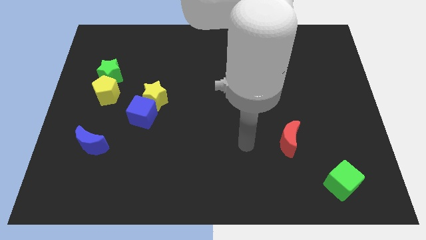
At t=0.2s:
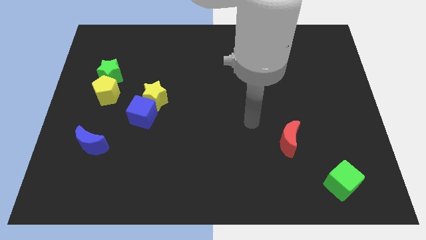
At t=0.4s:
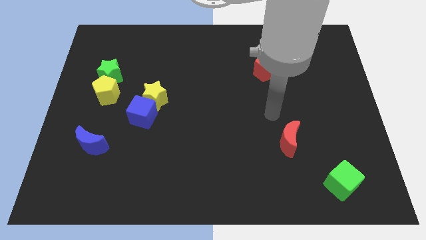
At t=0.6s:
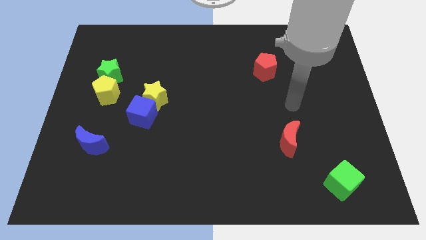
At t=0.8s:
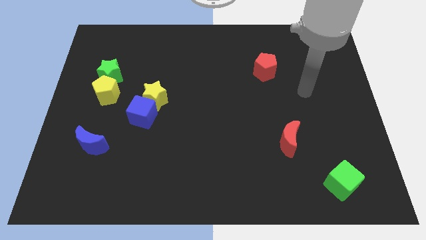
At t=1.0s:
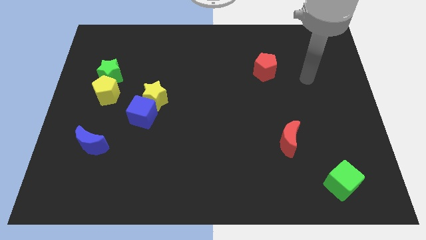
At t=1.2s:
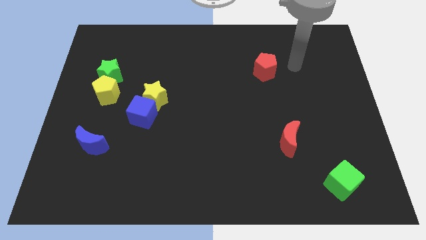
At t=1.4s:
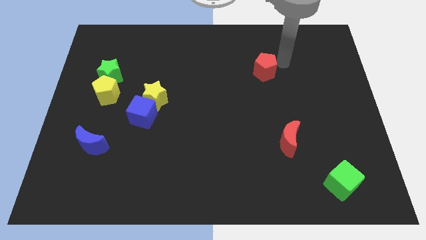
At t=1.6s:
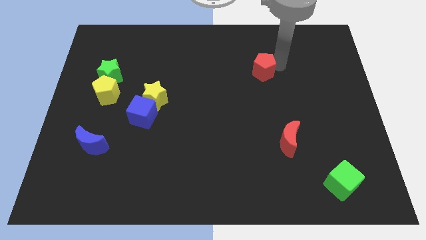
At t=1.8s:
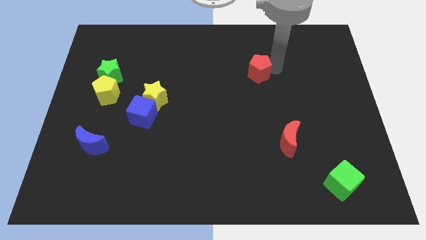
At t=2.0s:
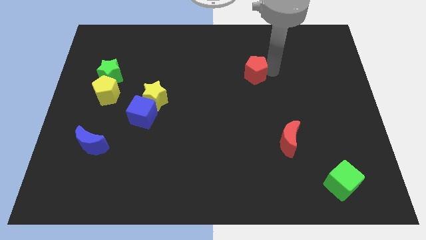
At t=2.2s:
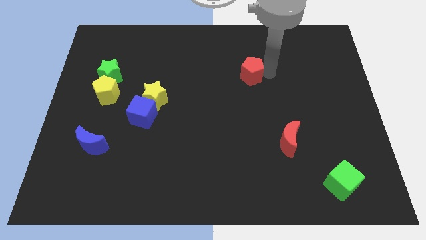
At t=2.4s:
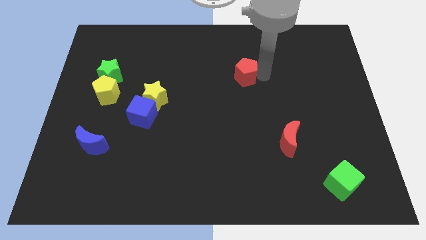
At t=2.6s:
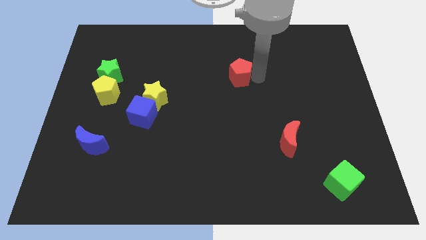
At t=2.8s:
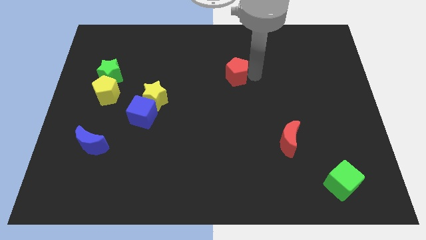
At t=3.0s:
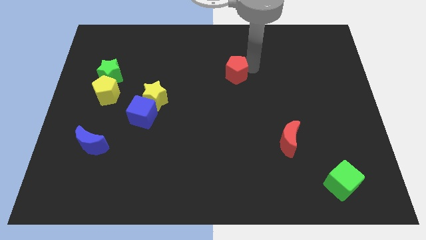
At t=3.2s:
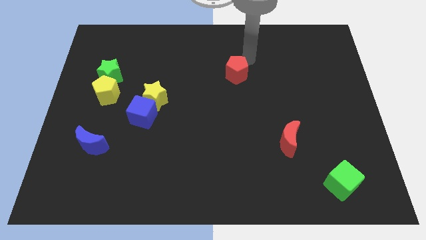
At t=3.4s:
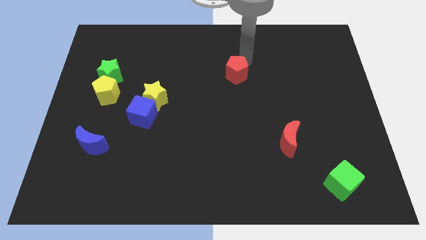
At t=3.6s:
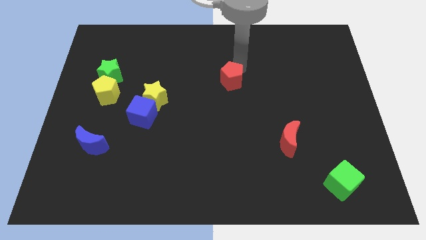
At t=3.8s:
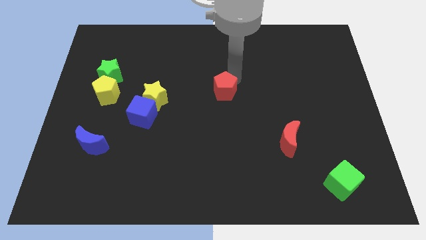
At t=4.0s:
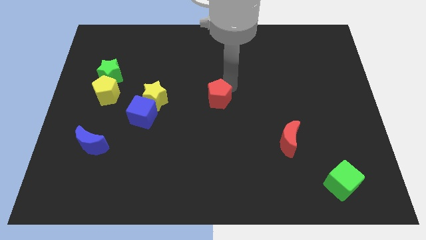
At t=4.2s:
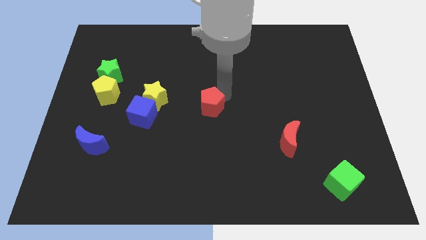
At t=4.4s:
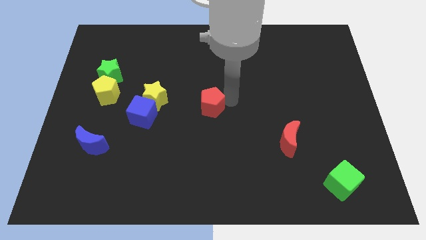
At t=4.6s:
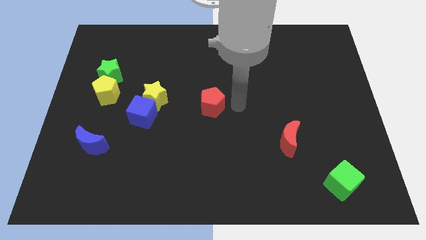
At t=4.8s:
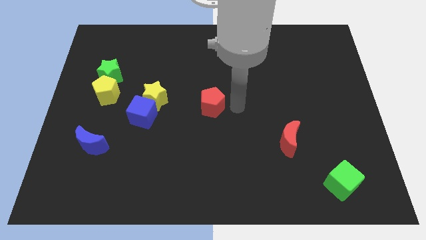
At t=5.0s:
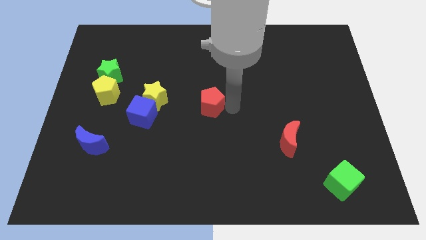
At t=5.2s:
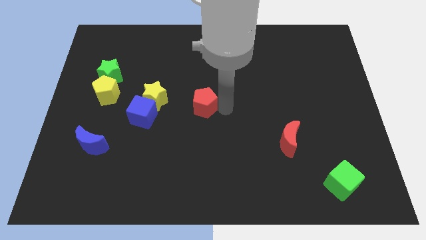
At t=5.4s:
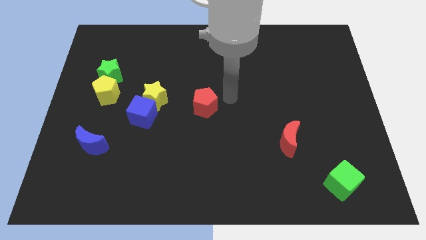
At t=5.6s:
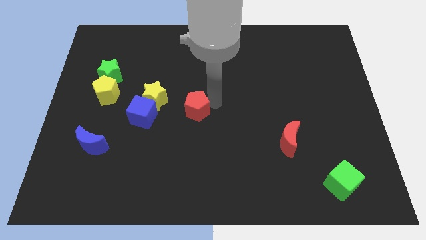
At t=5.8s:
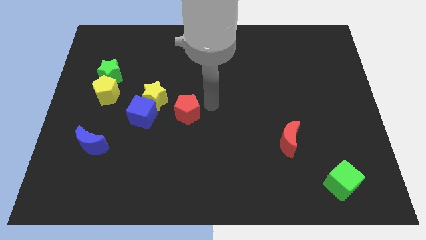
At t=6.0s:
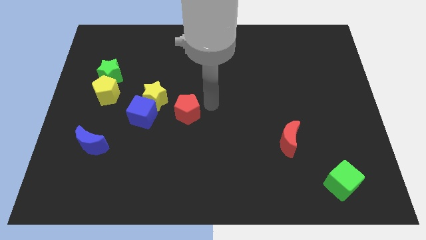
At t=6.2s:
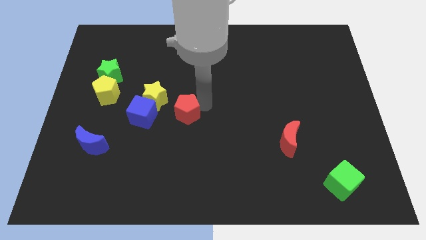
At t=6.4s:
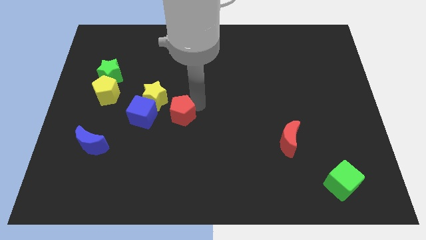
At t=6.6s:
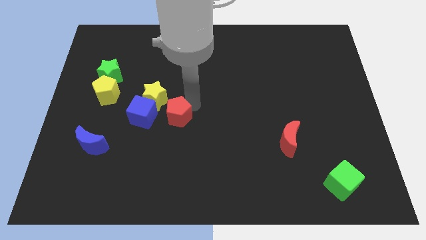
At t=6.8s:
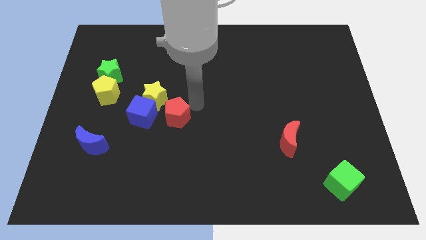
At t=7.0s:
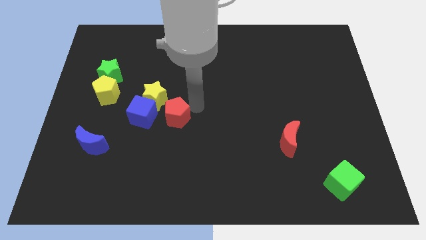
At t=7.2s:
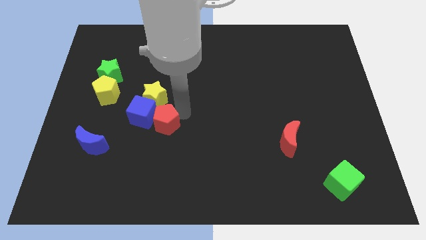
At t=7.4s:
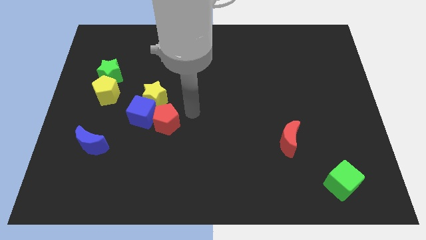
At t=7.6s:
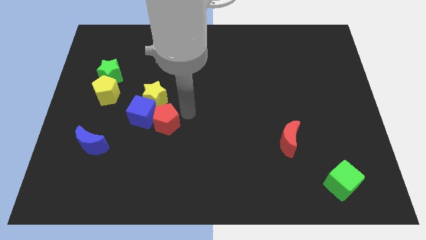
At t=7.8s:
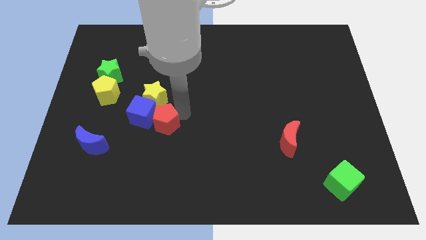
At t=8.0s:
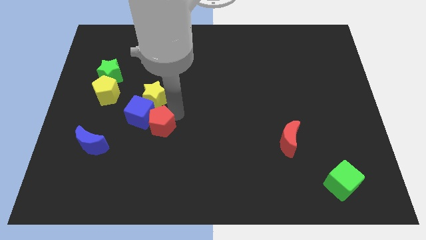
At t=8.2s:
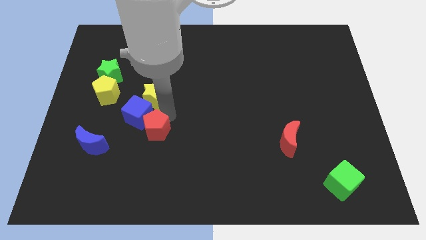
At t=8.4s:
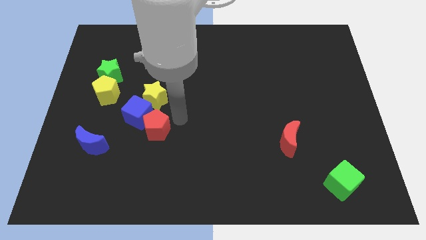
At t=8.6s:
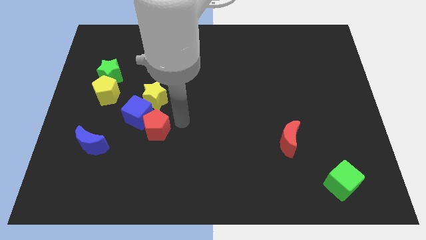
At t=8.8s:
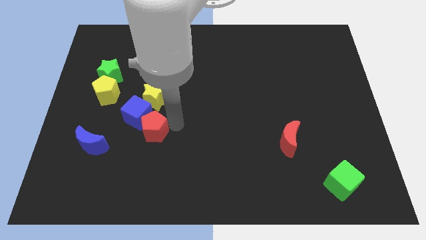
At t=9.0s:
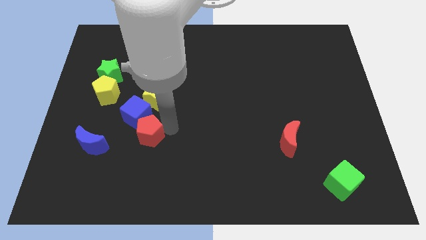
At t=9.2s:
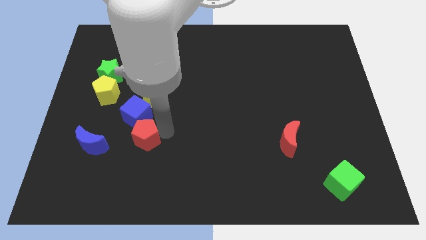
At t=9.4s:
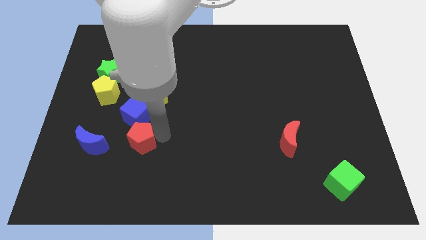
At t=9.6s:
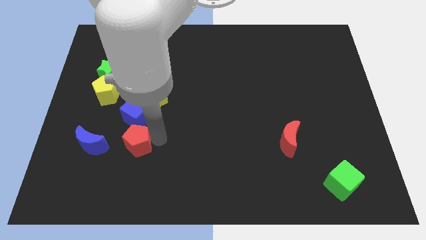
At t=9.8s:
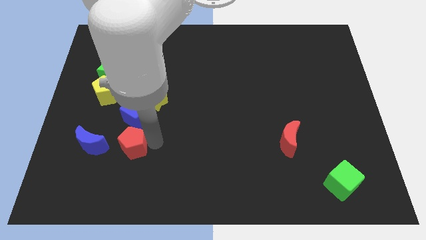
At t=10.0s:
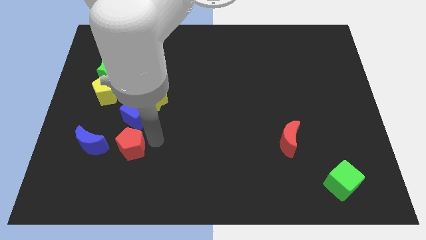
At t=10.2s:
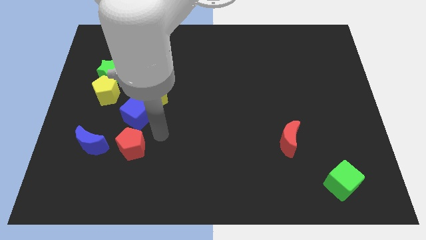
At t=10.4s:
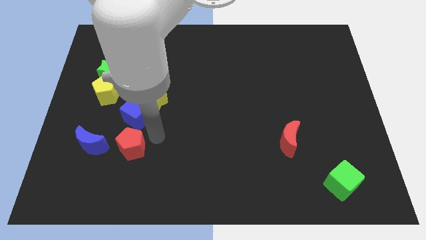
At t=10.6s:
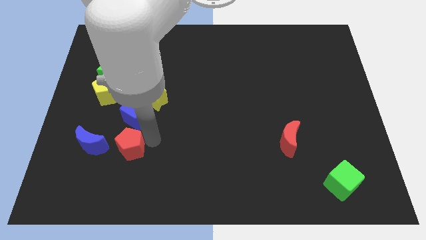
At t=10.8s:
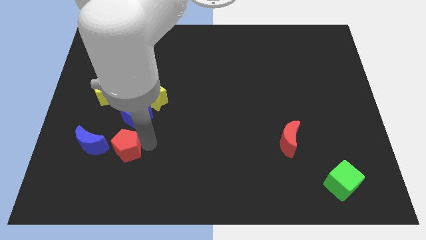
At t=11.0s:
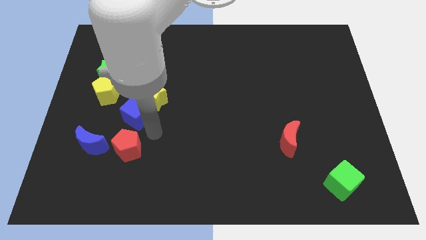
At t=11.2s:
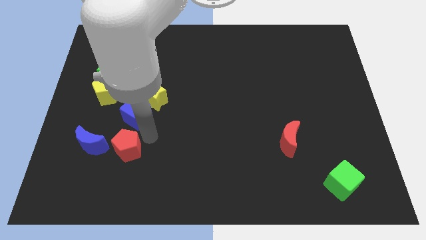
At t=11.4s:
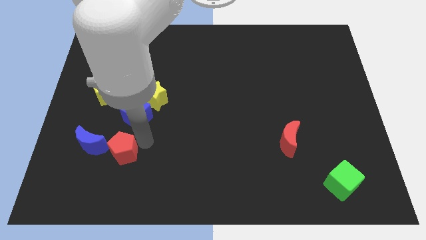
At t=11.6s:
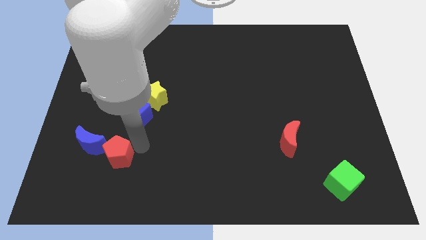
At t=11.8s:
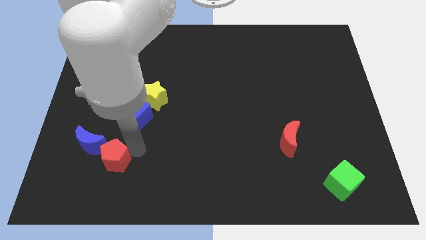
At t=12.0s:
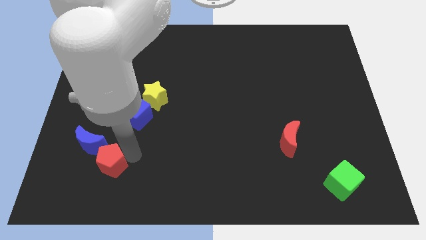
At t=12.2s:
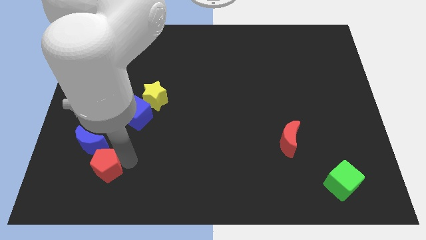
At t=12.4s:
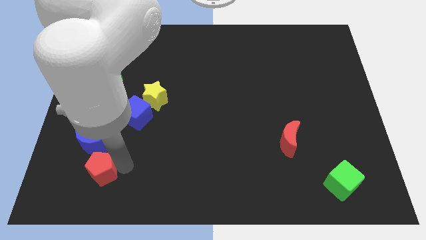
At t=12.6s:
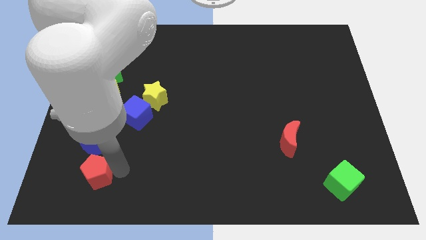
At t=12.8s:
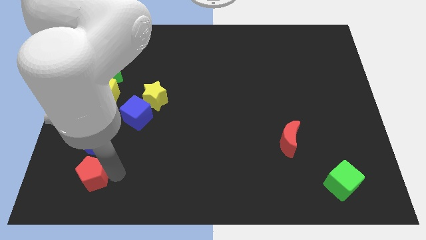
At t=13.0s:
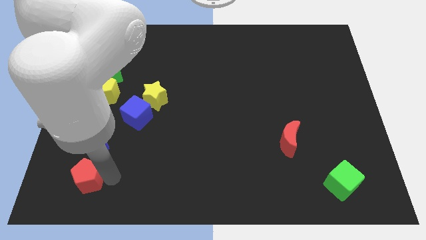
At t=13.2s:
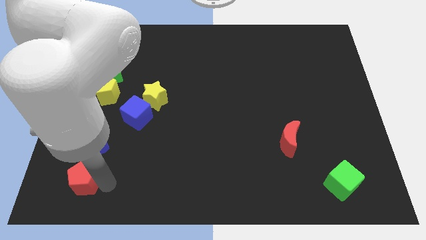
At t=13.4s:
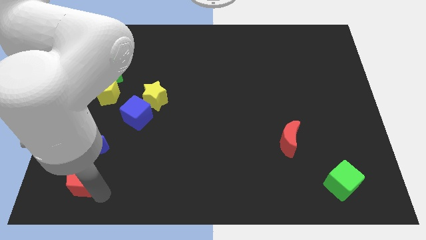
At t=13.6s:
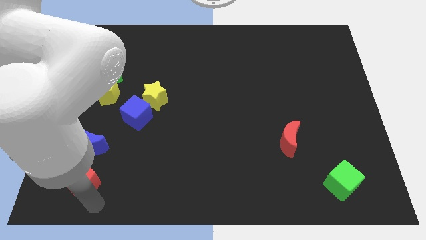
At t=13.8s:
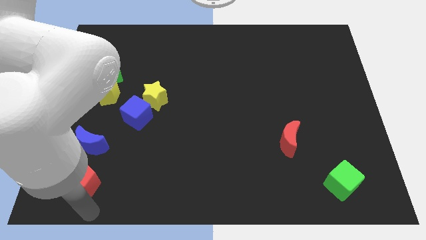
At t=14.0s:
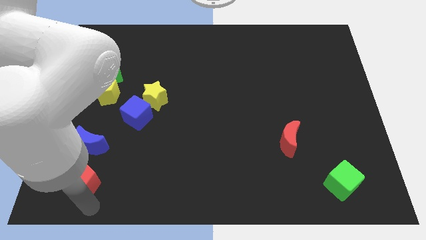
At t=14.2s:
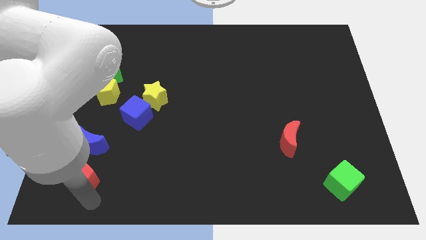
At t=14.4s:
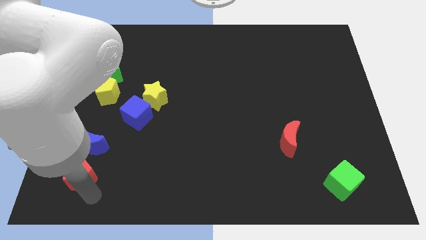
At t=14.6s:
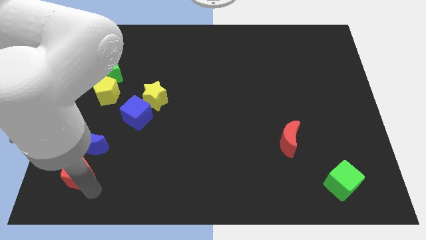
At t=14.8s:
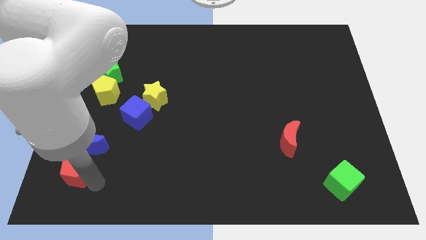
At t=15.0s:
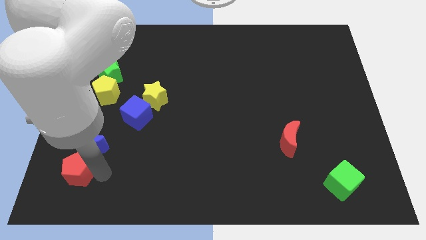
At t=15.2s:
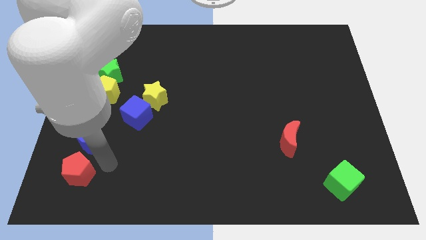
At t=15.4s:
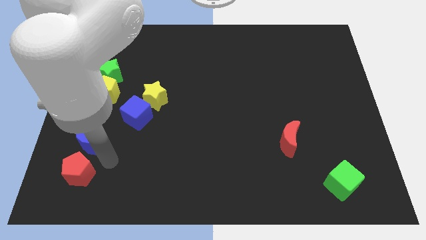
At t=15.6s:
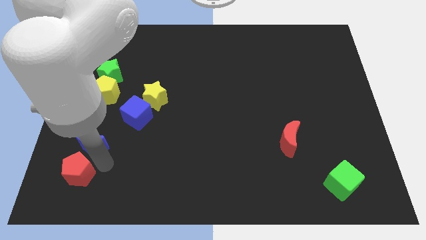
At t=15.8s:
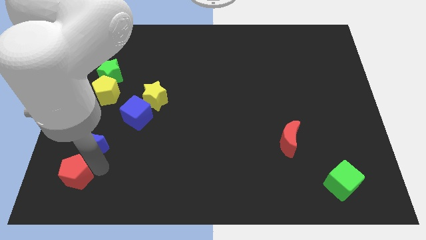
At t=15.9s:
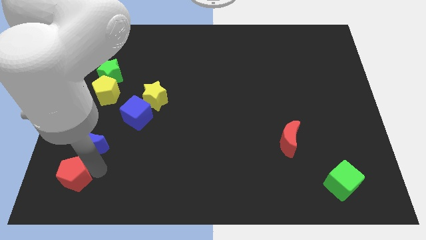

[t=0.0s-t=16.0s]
move the red pentagon to the bottom left
